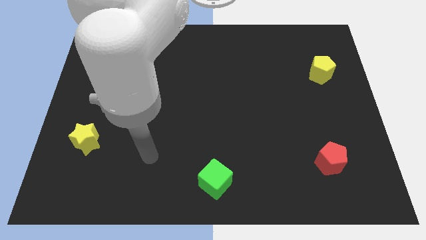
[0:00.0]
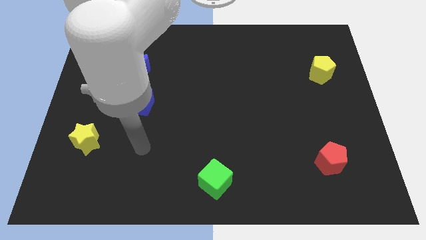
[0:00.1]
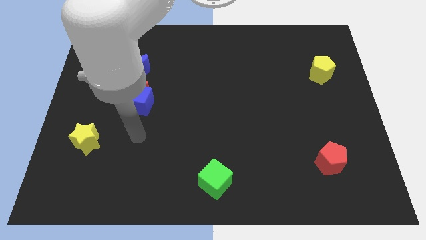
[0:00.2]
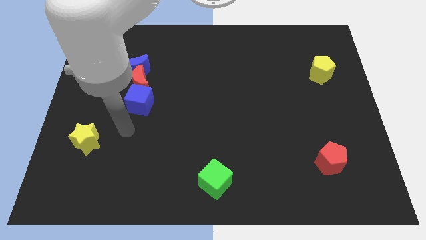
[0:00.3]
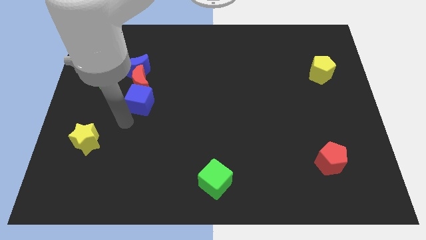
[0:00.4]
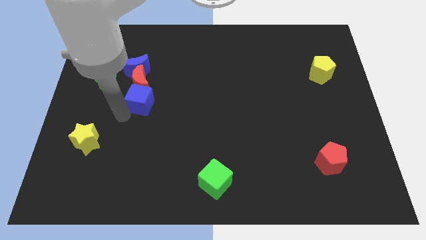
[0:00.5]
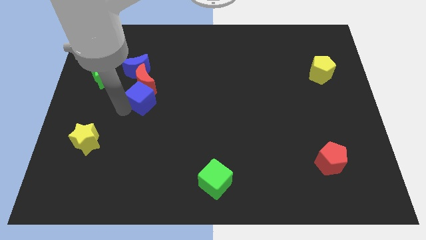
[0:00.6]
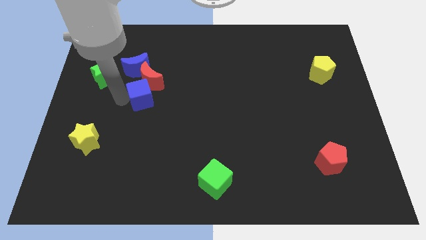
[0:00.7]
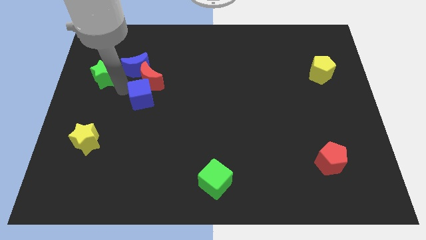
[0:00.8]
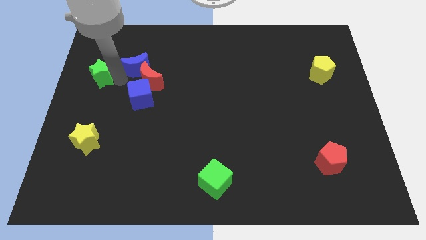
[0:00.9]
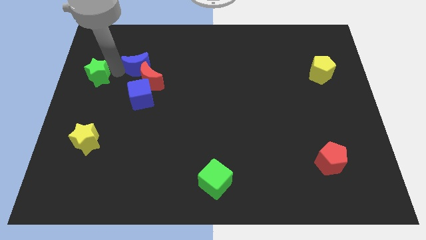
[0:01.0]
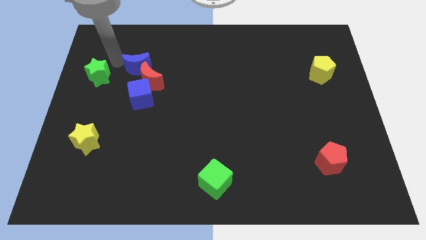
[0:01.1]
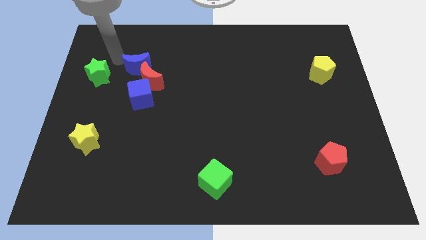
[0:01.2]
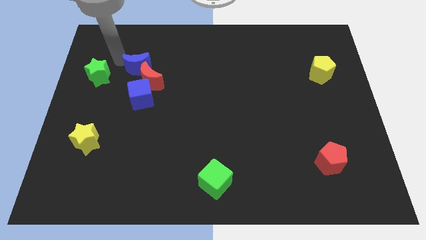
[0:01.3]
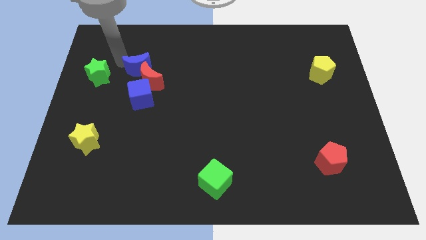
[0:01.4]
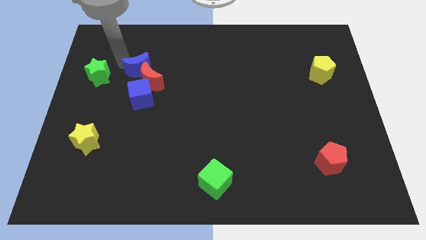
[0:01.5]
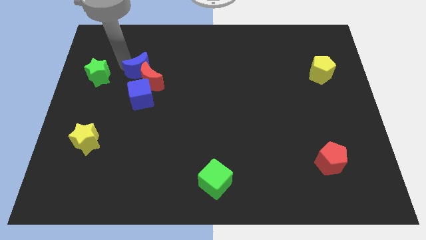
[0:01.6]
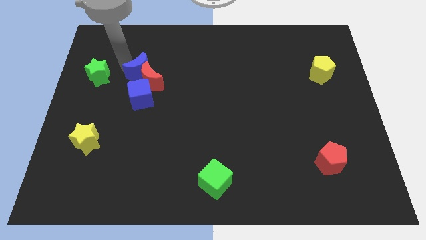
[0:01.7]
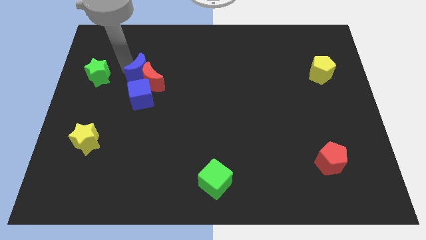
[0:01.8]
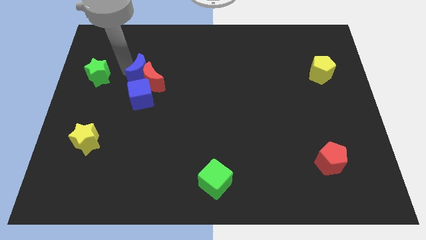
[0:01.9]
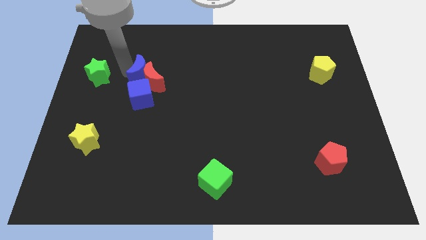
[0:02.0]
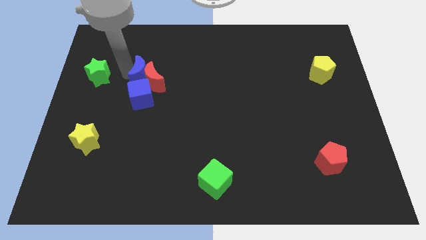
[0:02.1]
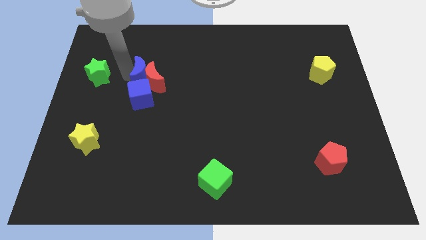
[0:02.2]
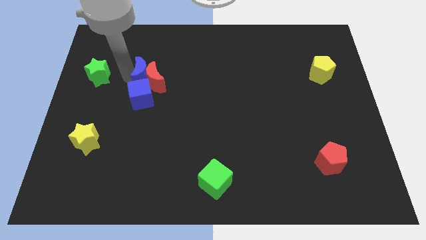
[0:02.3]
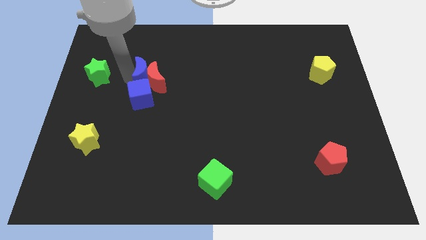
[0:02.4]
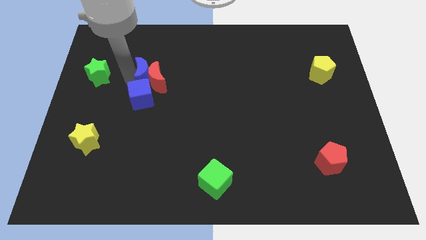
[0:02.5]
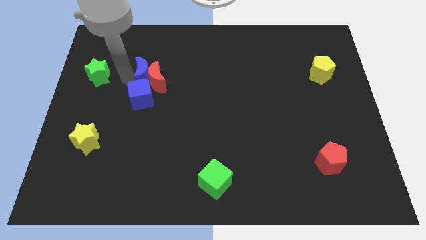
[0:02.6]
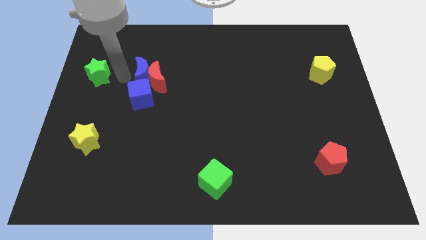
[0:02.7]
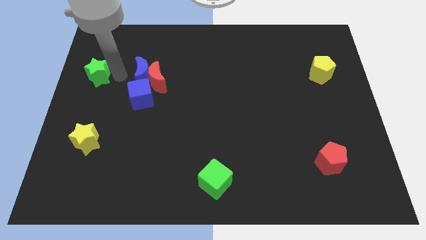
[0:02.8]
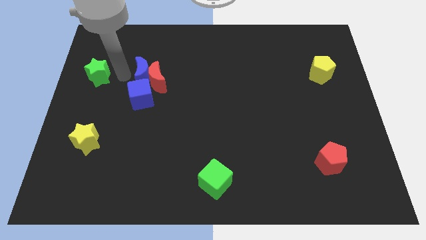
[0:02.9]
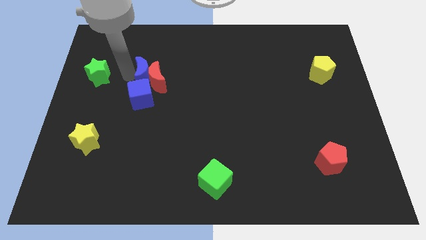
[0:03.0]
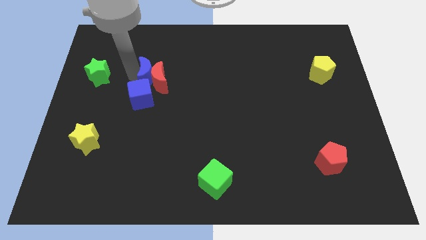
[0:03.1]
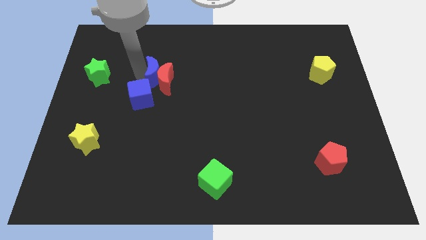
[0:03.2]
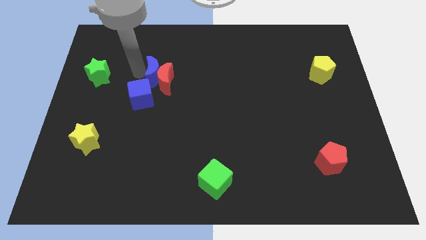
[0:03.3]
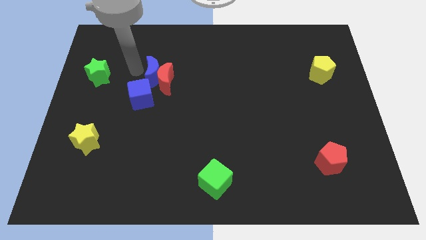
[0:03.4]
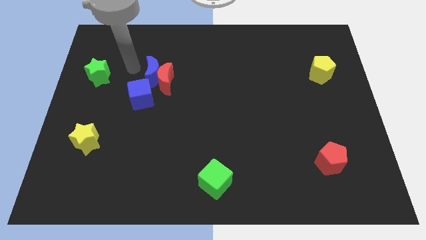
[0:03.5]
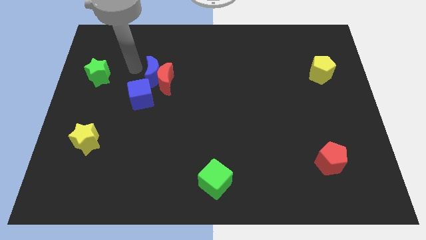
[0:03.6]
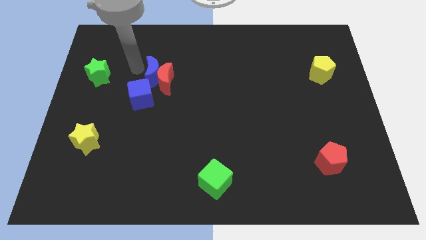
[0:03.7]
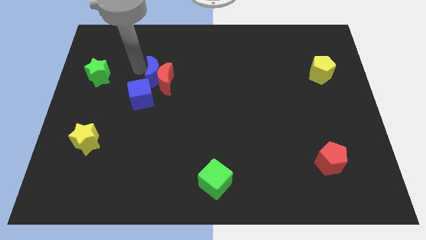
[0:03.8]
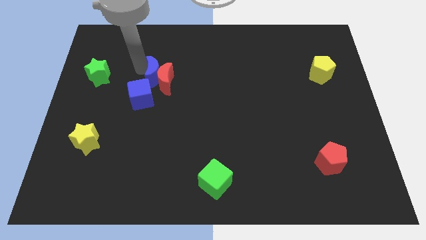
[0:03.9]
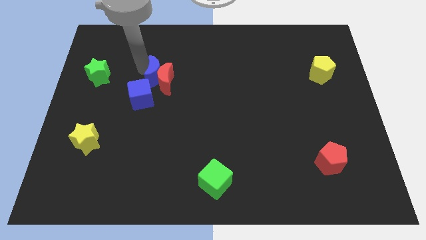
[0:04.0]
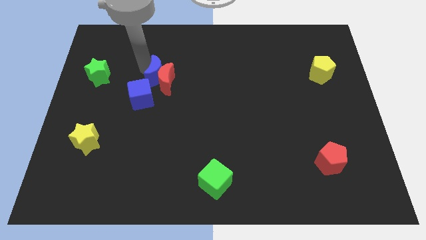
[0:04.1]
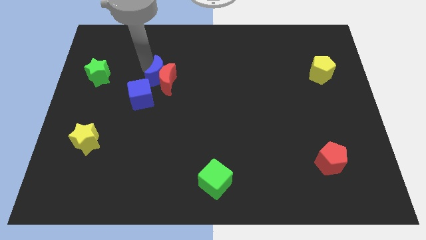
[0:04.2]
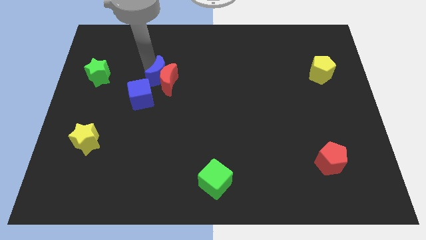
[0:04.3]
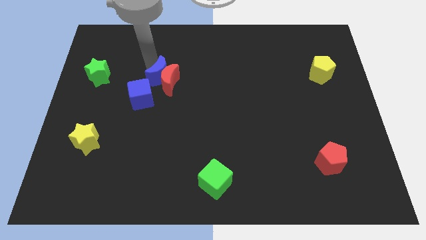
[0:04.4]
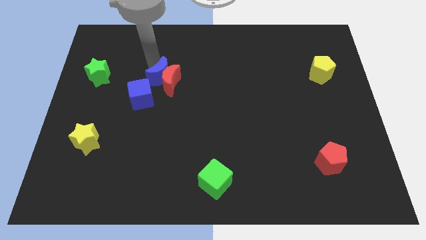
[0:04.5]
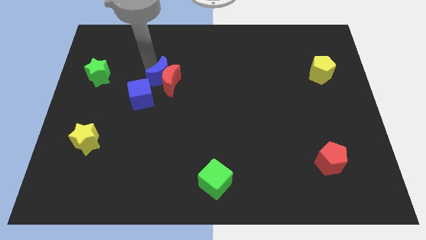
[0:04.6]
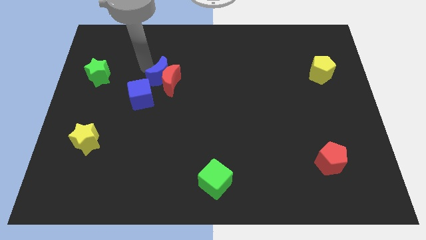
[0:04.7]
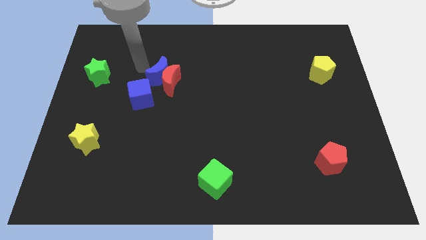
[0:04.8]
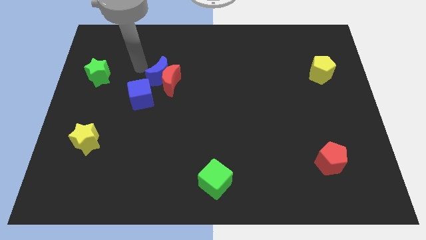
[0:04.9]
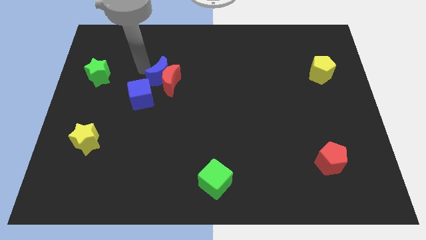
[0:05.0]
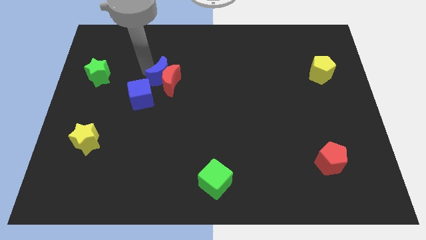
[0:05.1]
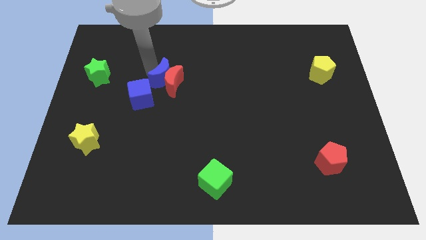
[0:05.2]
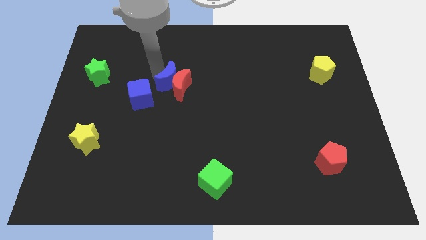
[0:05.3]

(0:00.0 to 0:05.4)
slide the blue moon to the center of the board
